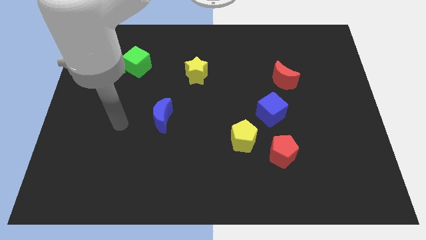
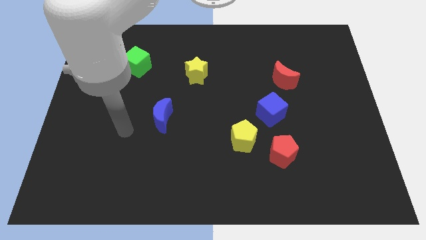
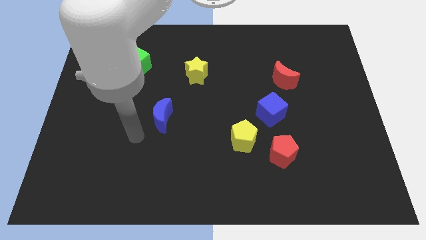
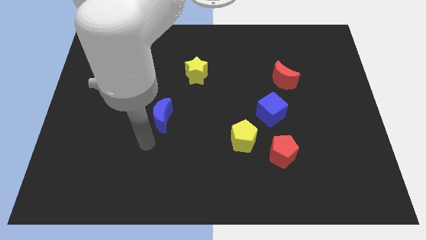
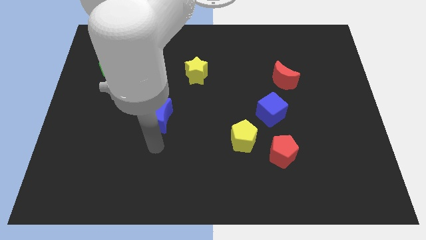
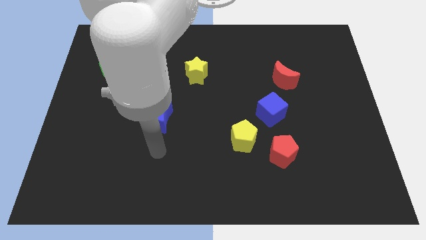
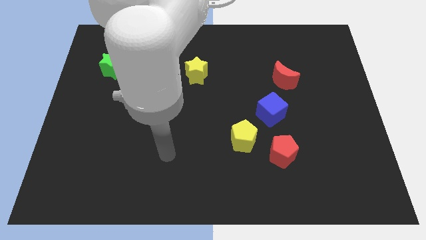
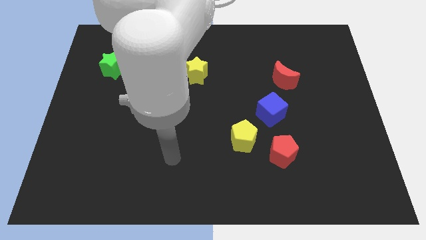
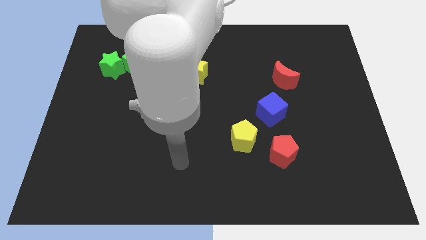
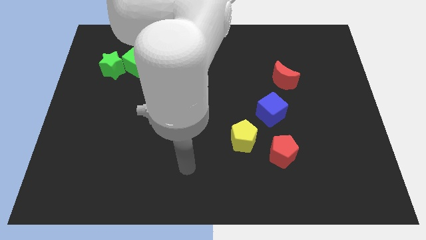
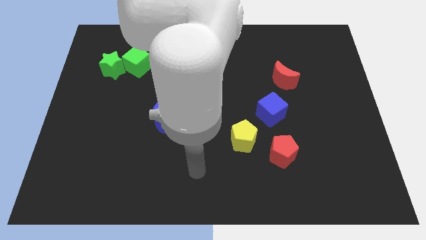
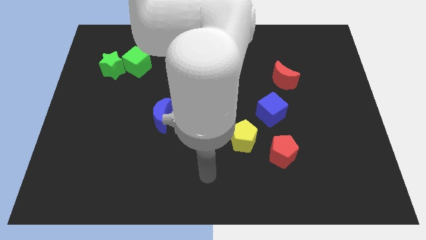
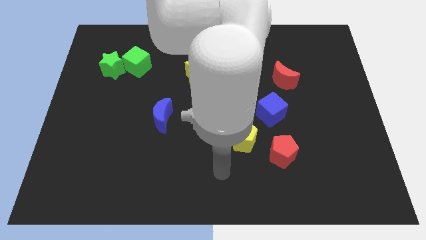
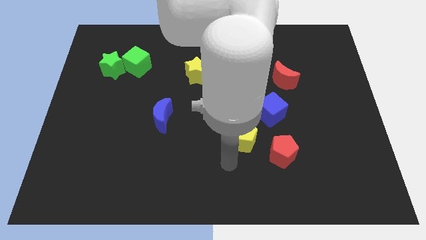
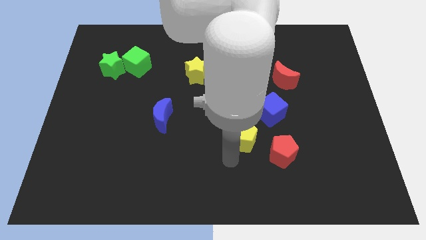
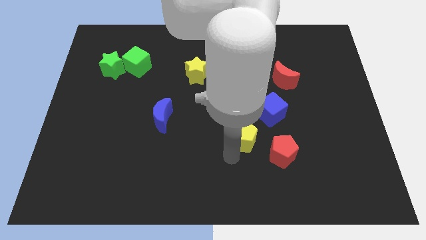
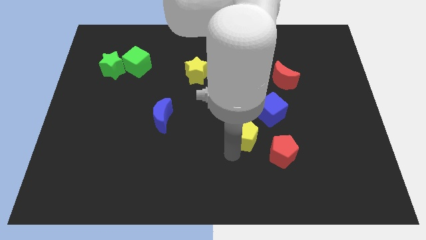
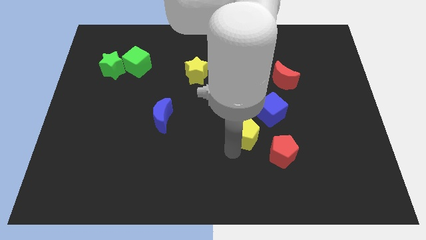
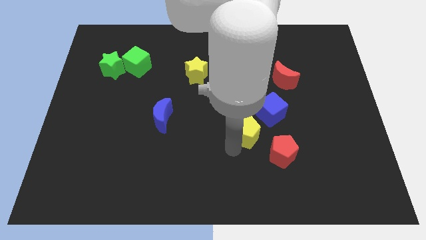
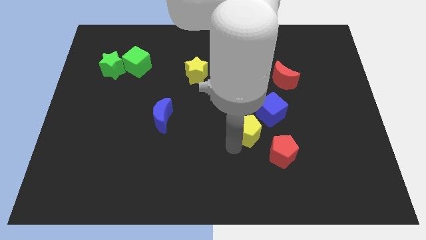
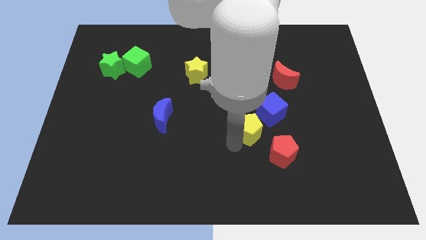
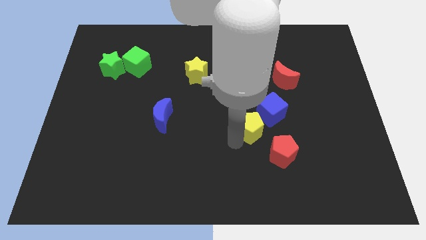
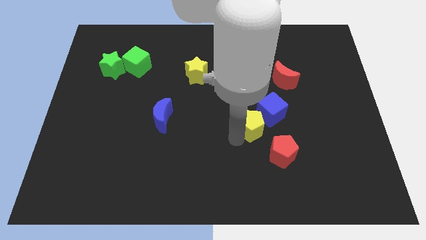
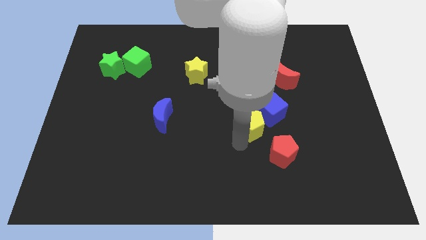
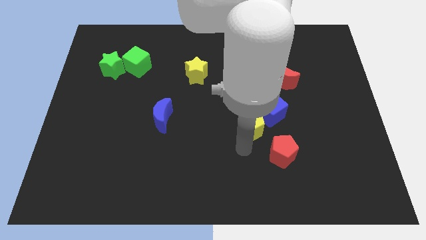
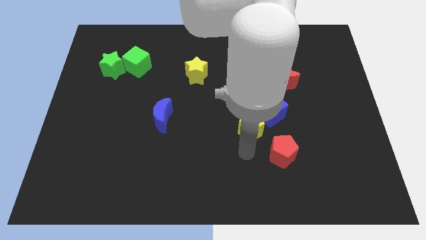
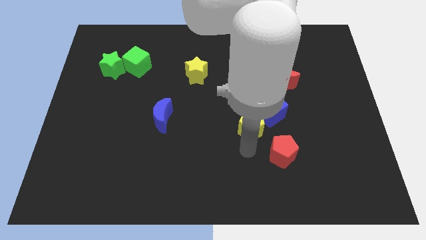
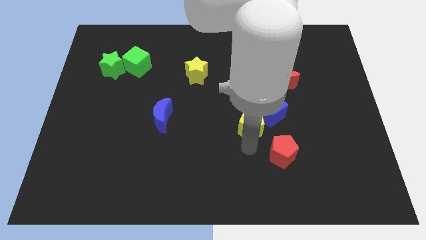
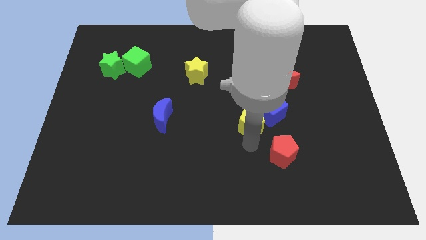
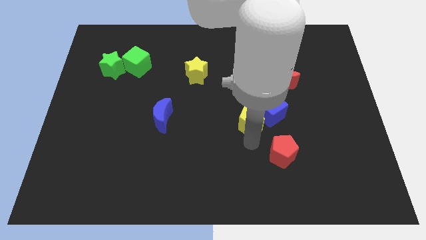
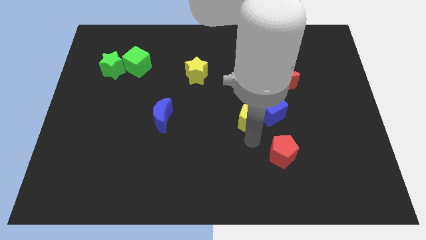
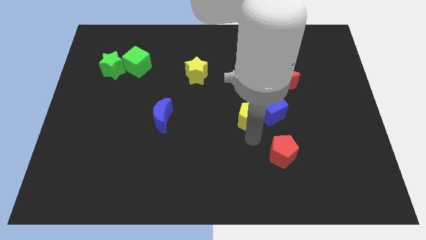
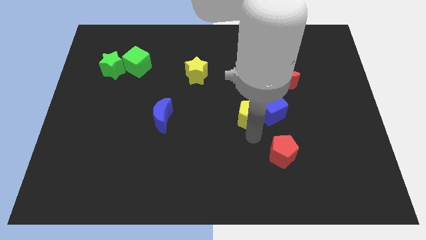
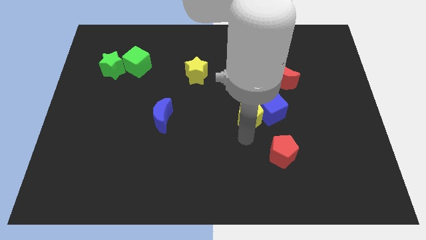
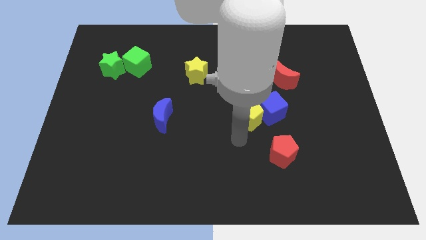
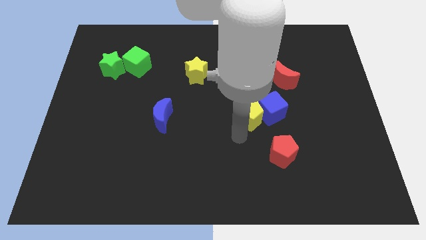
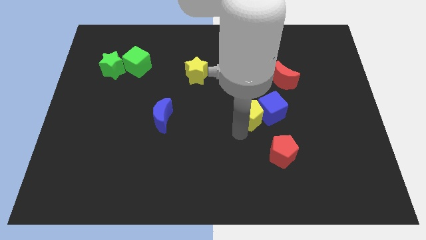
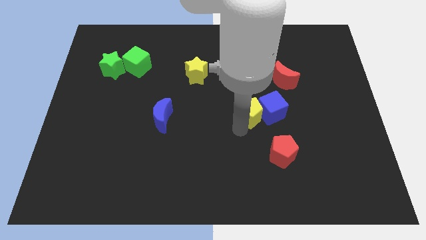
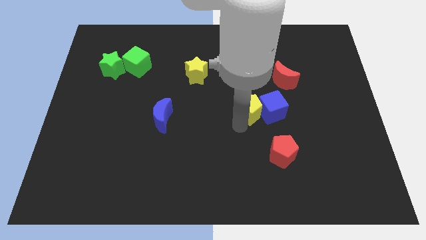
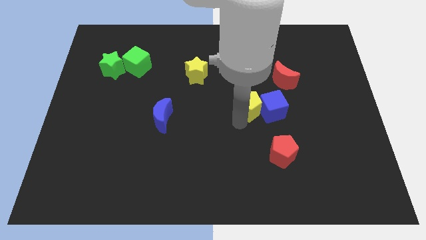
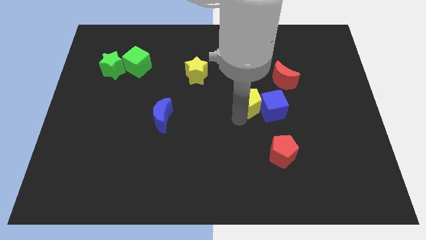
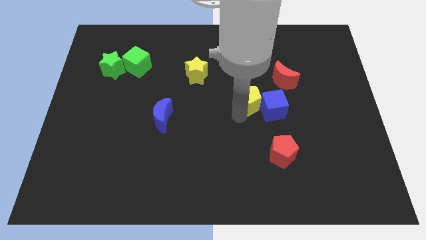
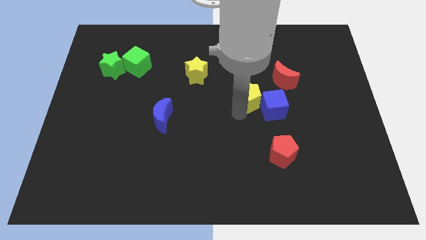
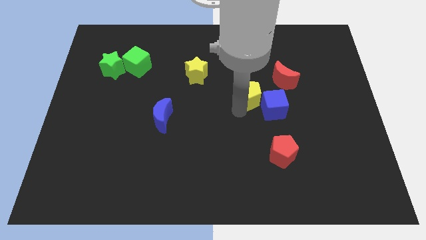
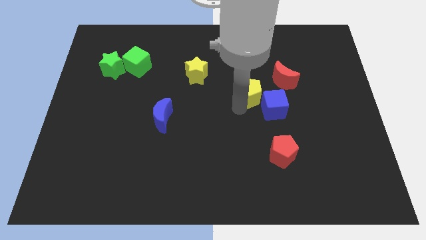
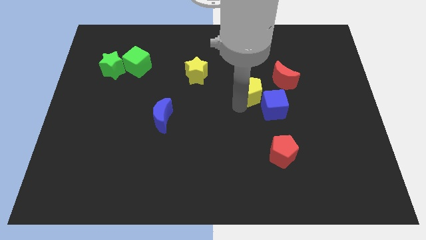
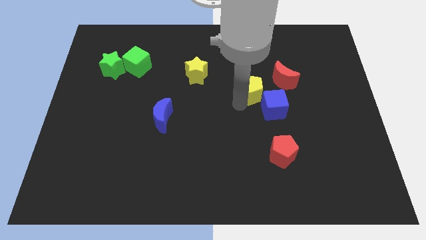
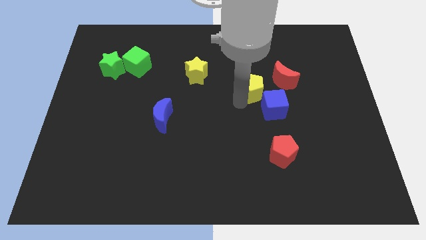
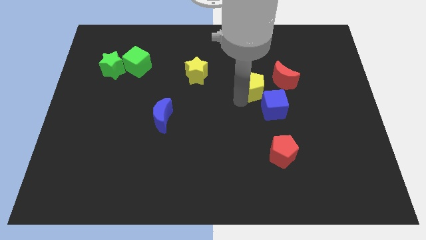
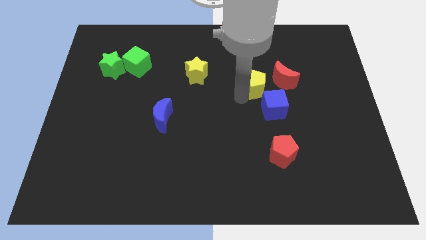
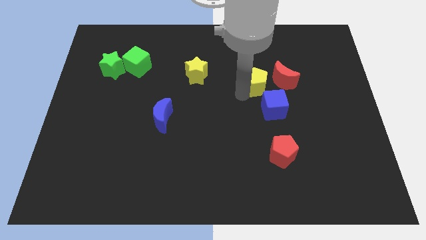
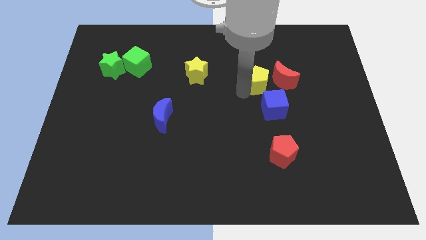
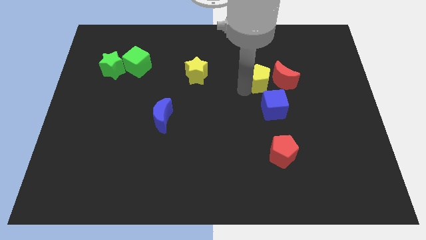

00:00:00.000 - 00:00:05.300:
move the yellow pentagon close to the red moon

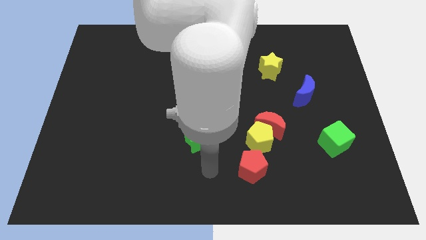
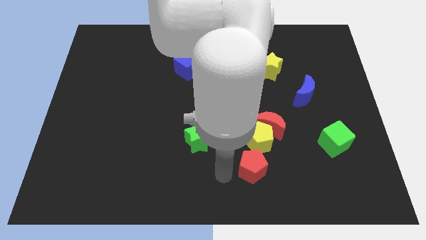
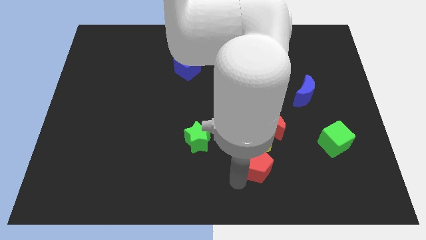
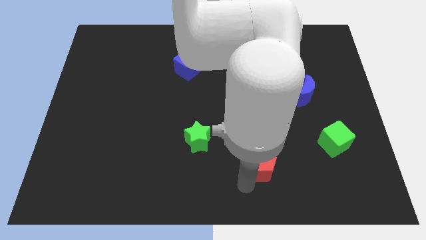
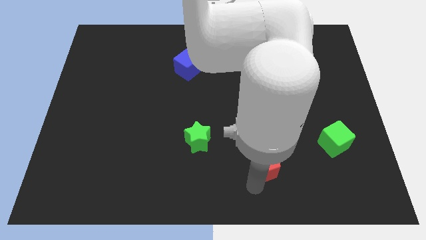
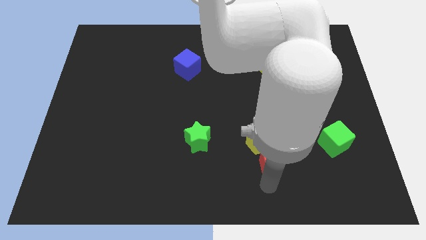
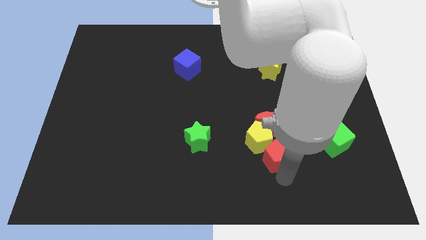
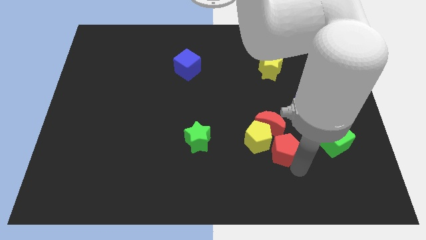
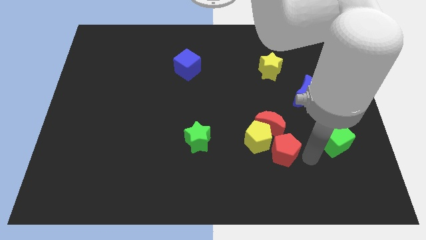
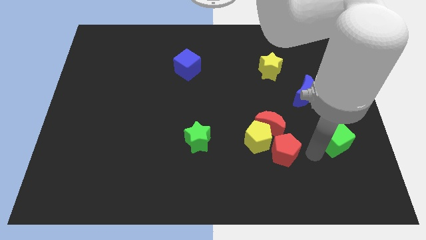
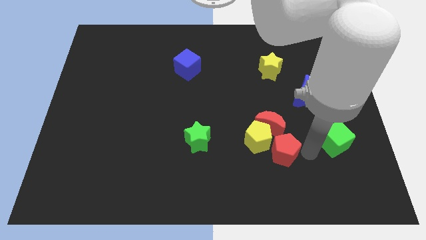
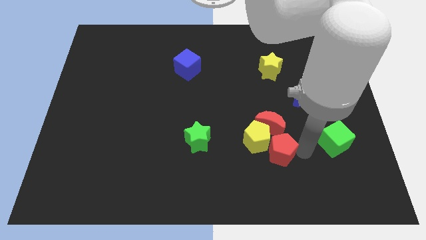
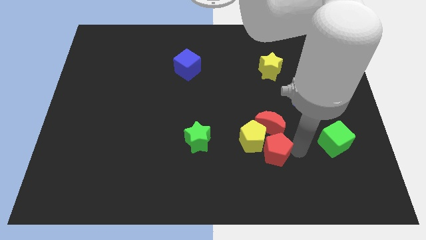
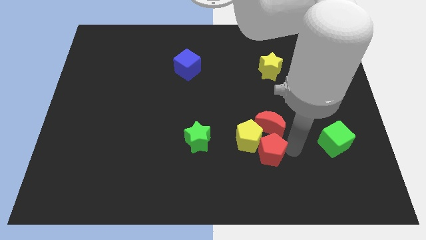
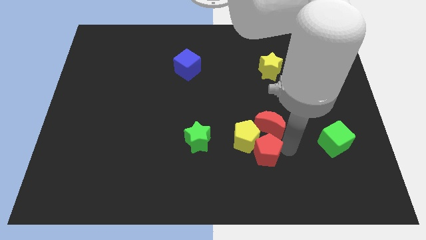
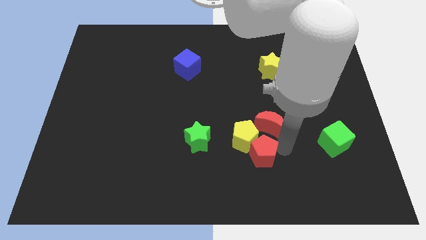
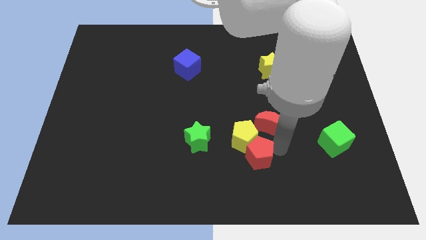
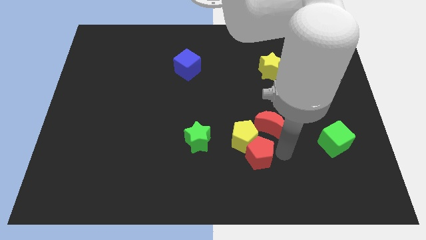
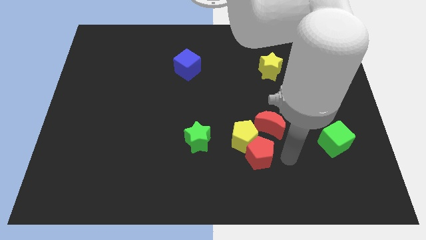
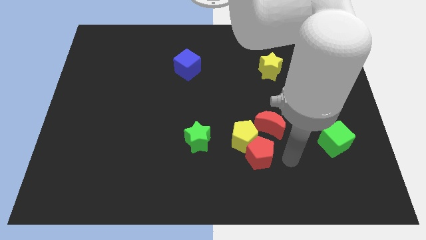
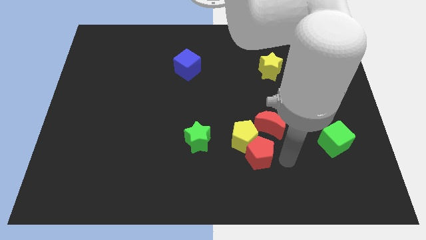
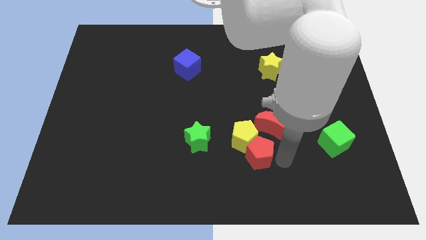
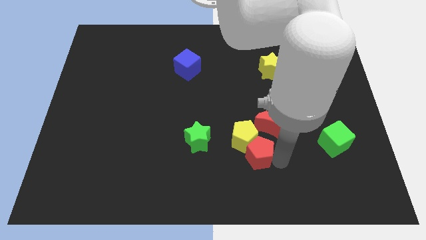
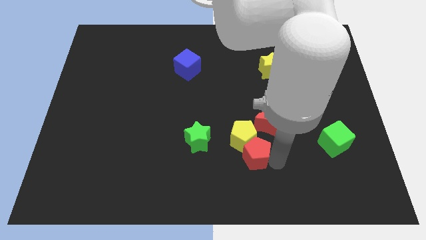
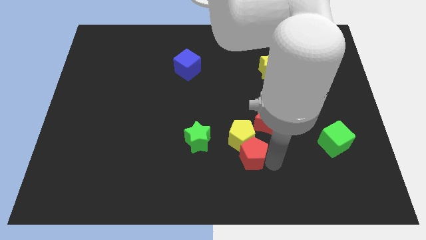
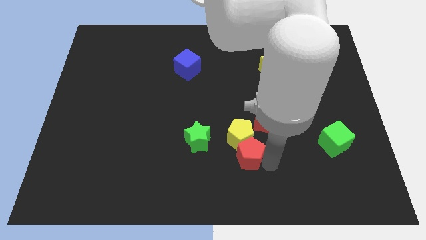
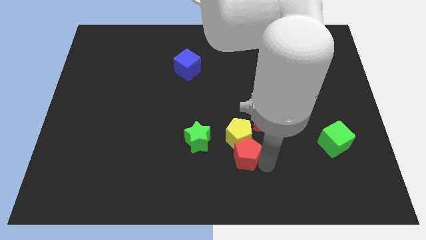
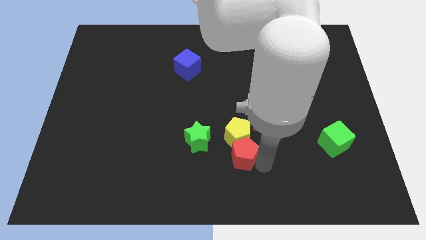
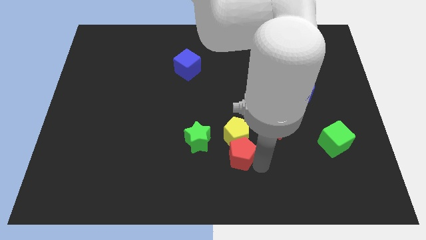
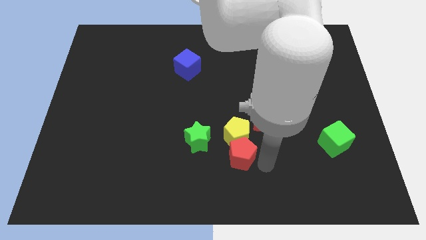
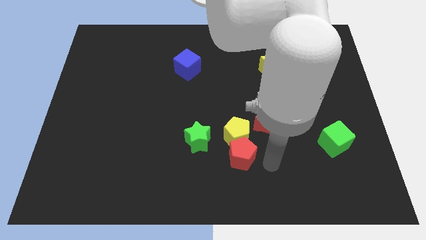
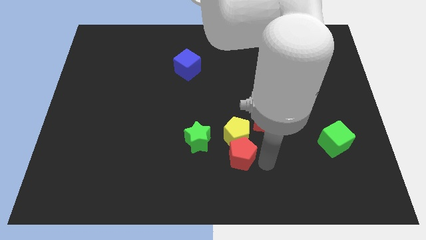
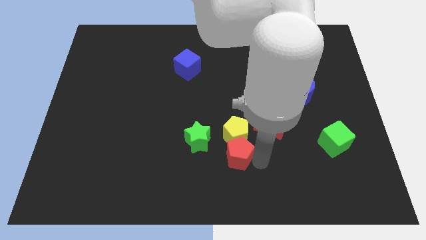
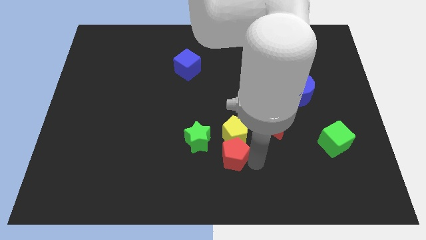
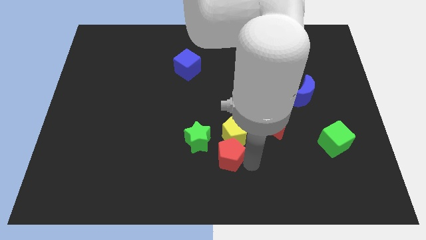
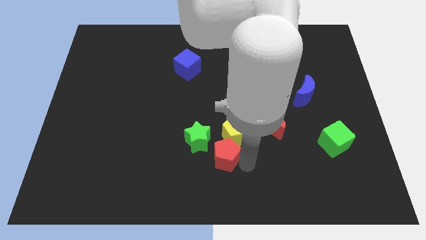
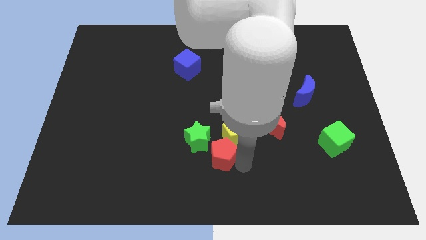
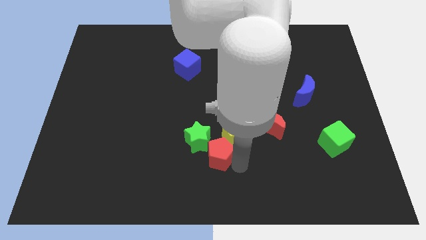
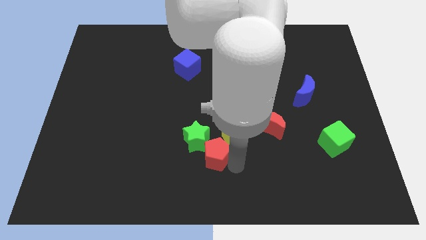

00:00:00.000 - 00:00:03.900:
slide the red pentagon towards the green star
